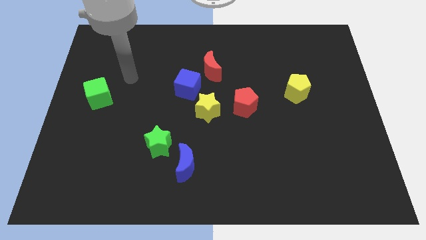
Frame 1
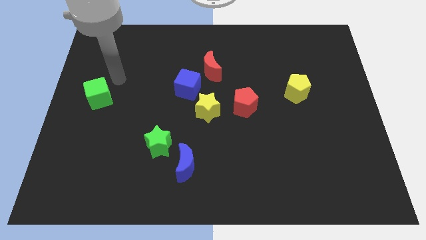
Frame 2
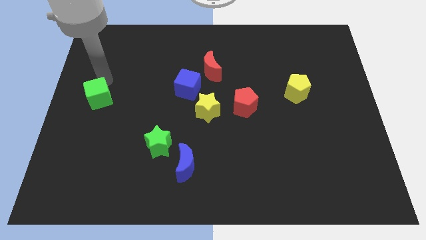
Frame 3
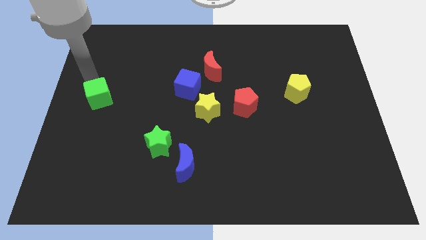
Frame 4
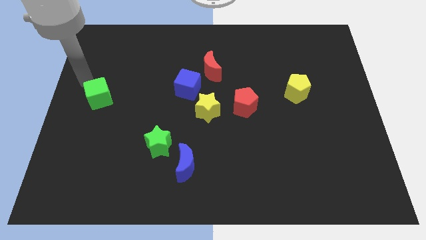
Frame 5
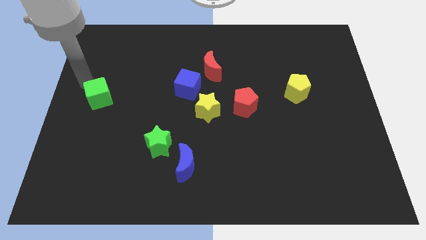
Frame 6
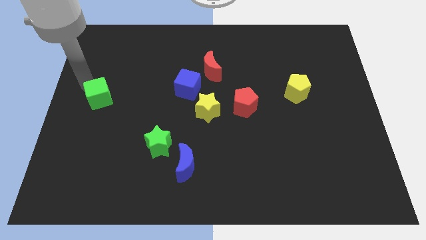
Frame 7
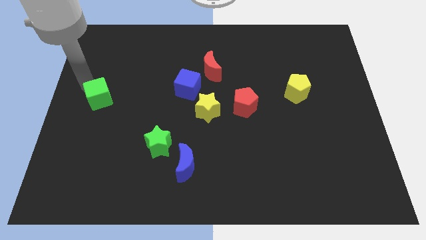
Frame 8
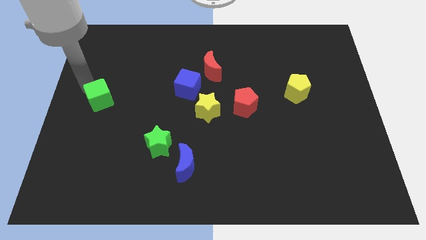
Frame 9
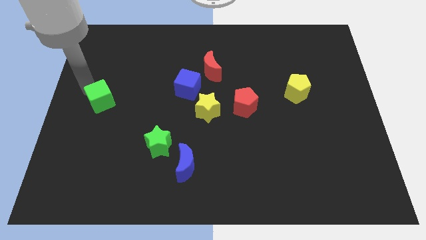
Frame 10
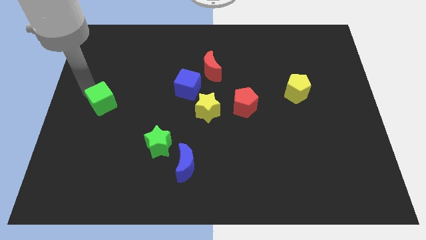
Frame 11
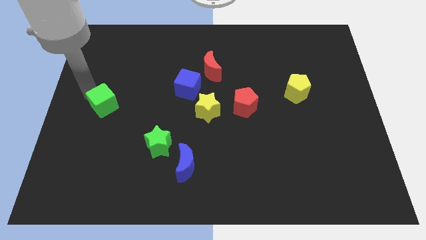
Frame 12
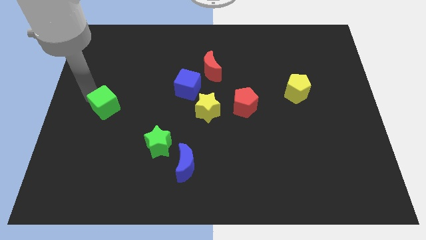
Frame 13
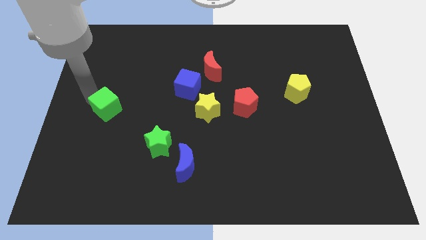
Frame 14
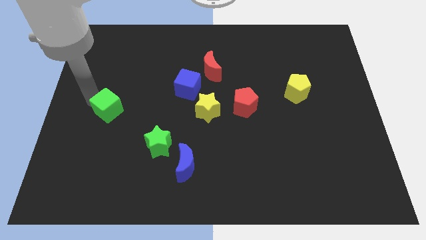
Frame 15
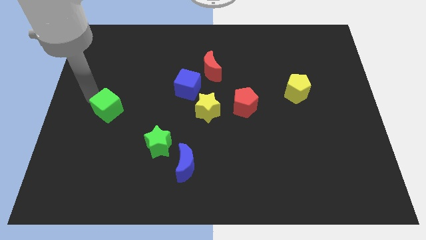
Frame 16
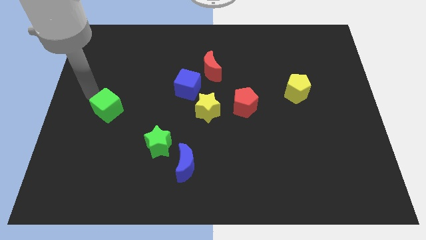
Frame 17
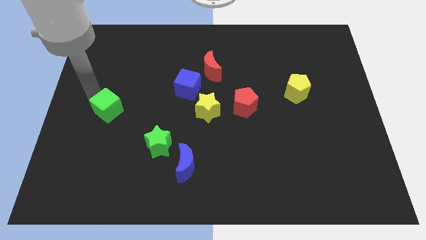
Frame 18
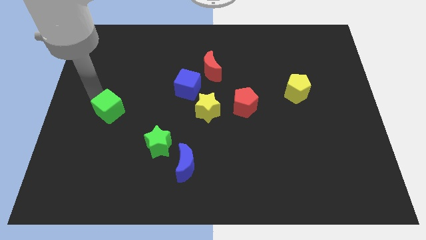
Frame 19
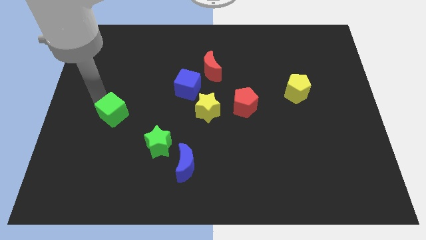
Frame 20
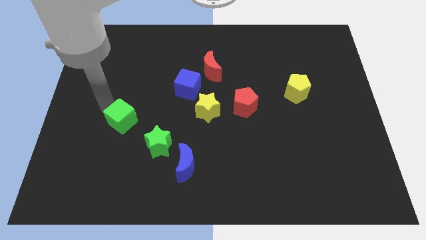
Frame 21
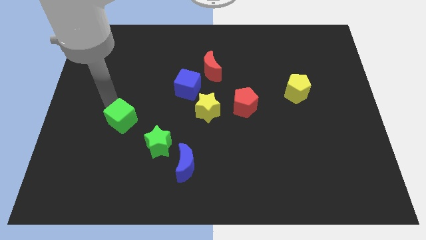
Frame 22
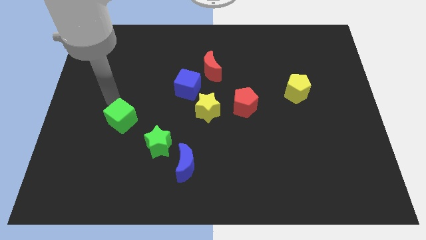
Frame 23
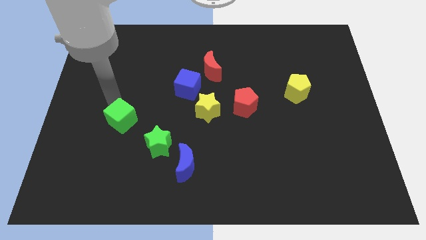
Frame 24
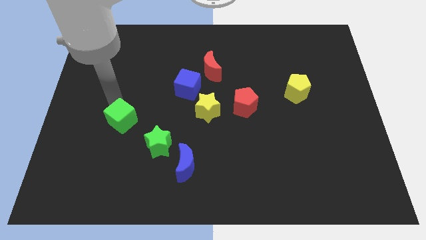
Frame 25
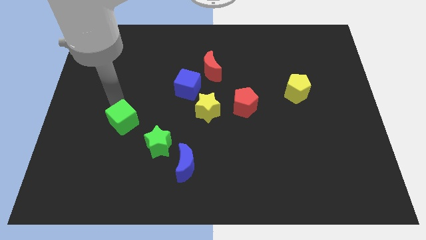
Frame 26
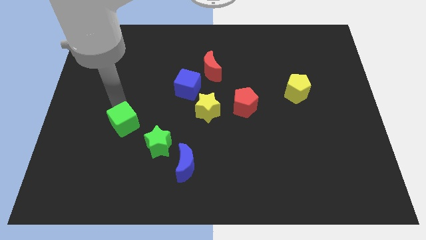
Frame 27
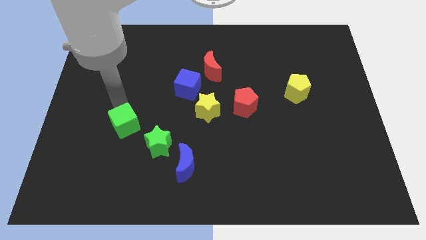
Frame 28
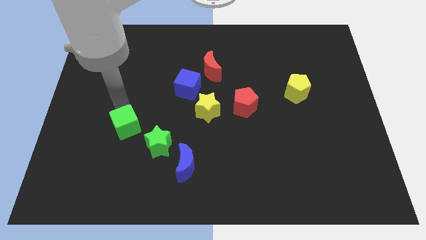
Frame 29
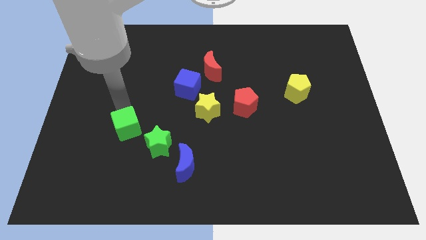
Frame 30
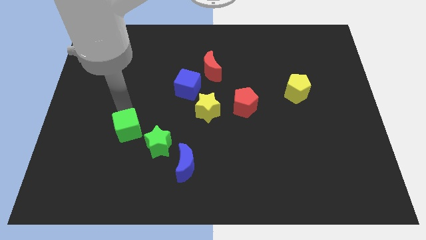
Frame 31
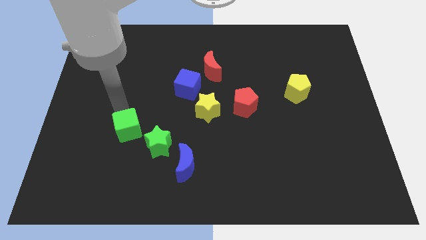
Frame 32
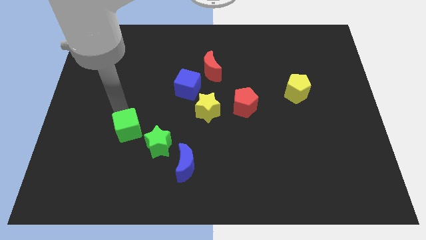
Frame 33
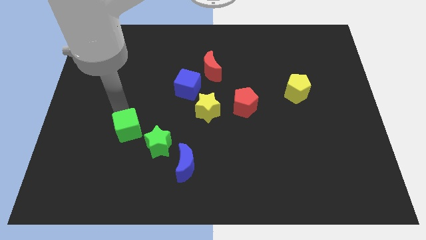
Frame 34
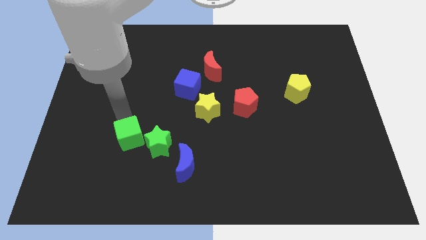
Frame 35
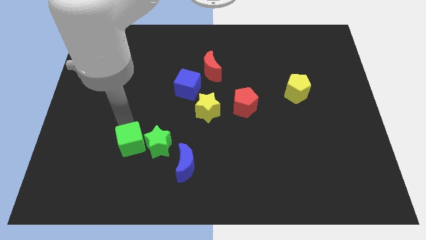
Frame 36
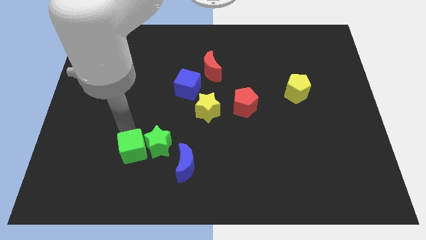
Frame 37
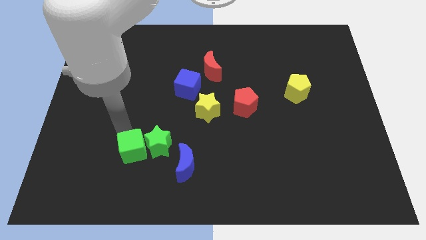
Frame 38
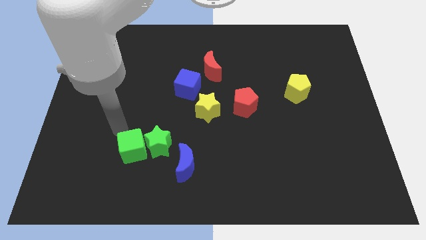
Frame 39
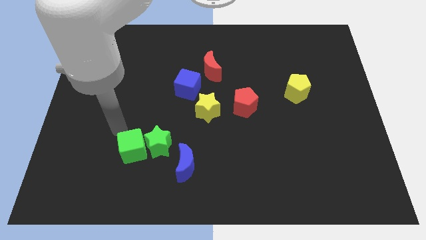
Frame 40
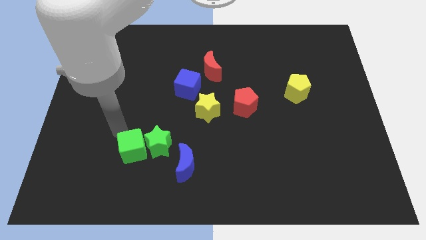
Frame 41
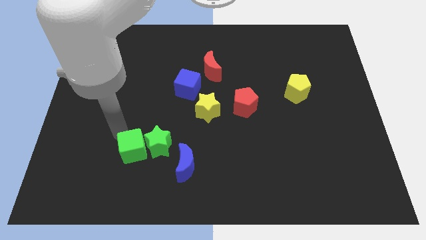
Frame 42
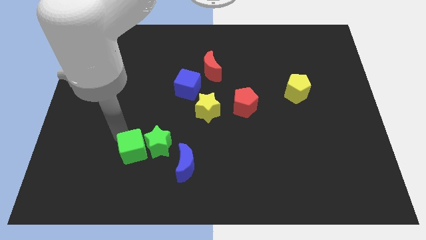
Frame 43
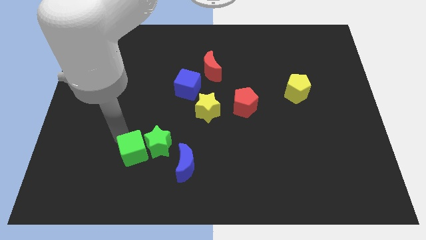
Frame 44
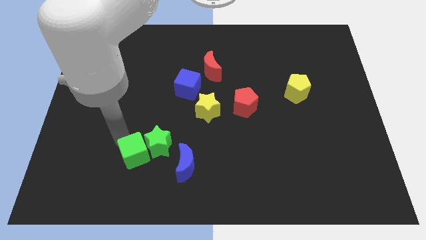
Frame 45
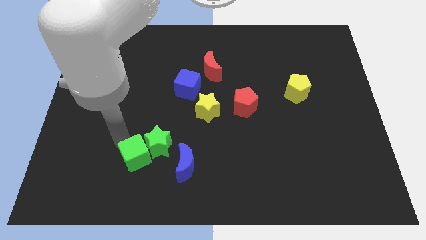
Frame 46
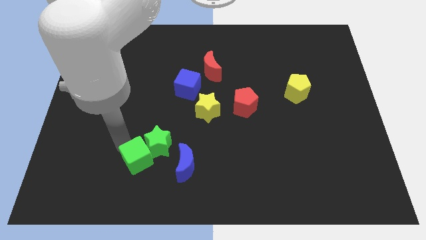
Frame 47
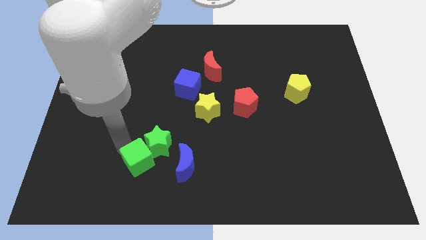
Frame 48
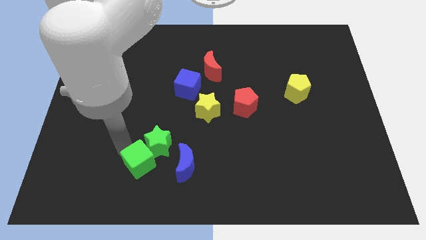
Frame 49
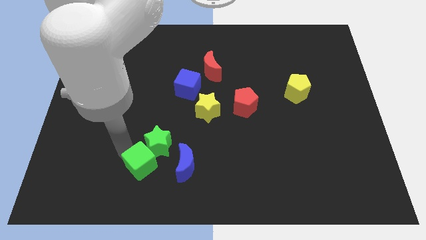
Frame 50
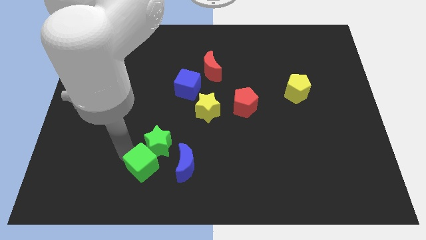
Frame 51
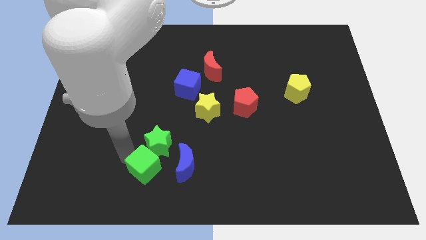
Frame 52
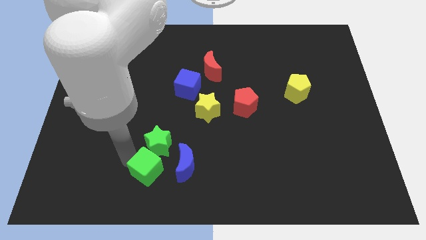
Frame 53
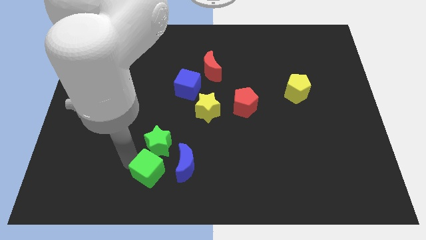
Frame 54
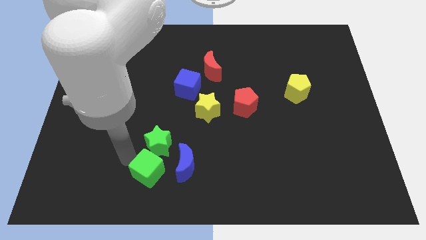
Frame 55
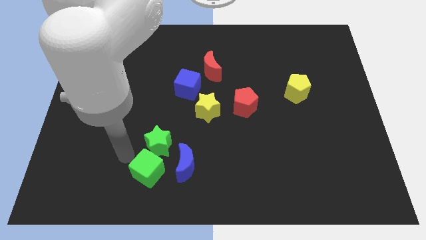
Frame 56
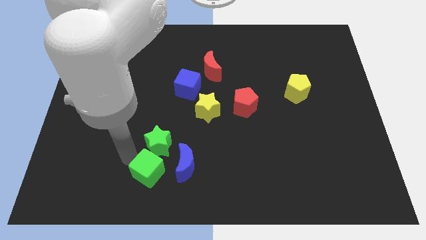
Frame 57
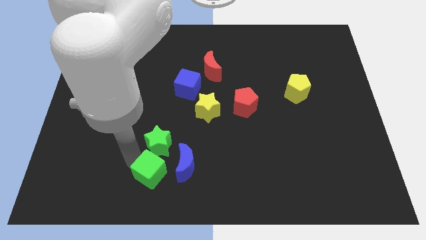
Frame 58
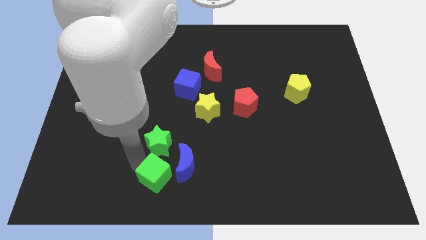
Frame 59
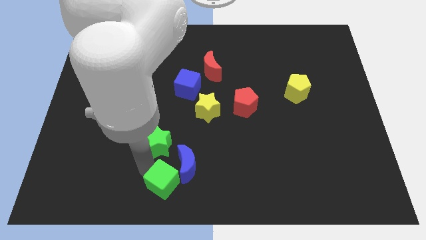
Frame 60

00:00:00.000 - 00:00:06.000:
push the green cube to the bottom side

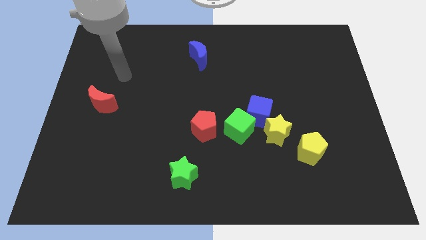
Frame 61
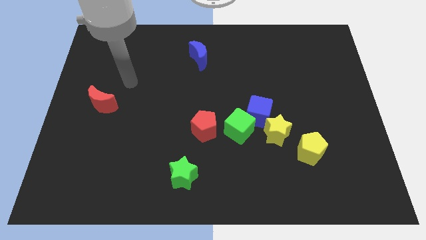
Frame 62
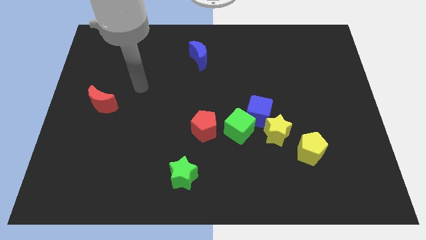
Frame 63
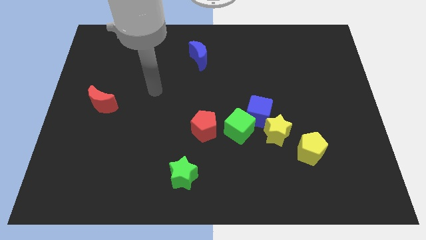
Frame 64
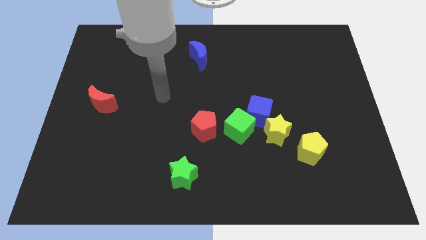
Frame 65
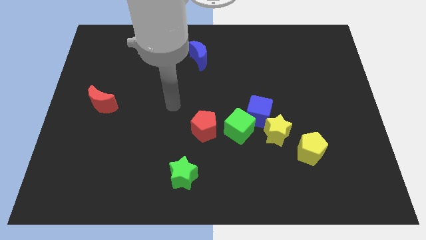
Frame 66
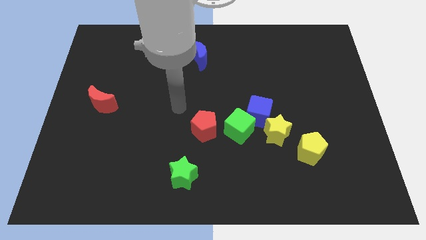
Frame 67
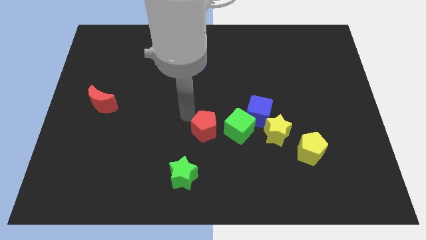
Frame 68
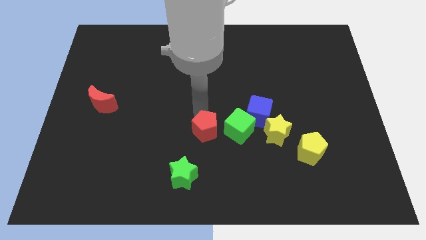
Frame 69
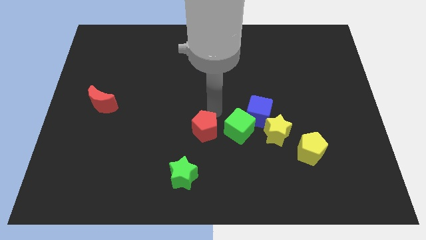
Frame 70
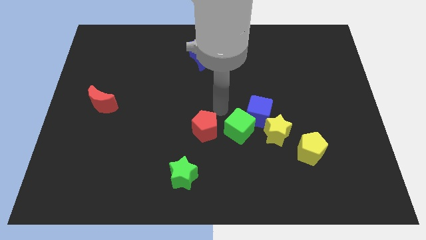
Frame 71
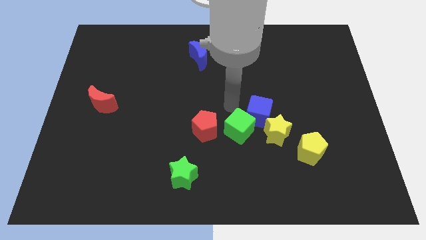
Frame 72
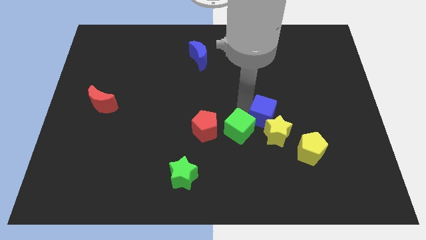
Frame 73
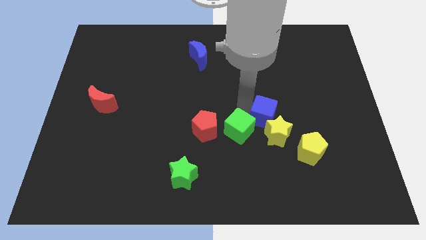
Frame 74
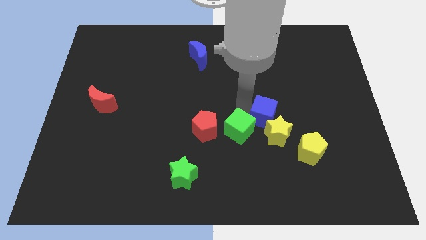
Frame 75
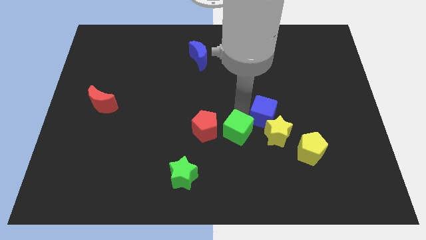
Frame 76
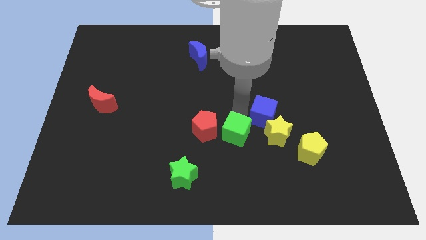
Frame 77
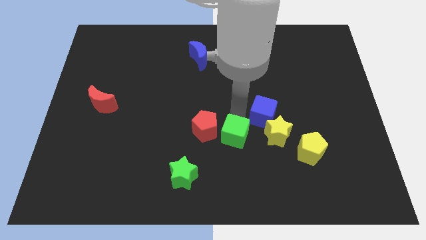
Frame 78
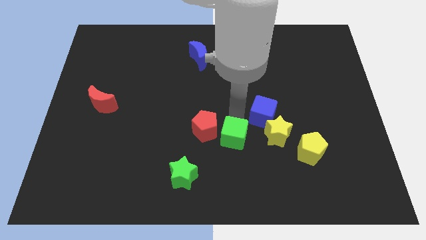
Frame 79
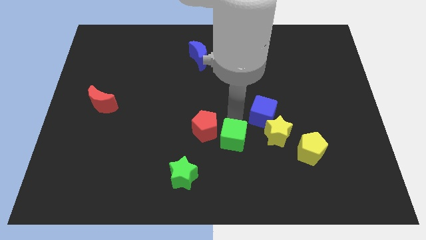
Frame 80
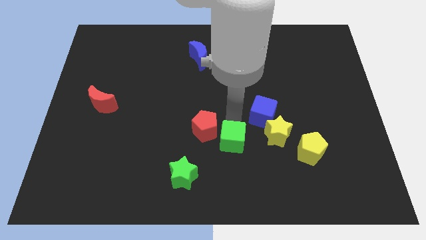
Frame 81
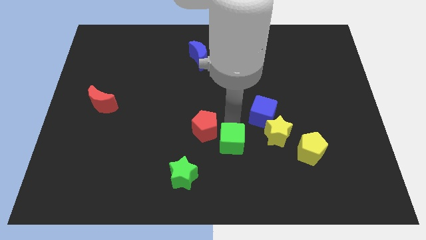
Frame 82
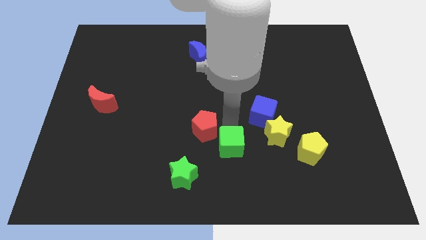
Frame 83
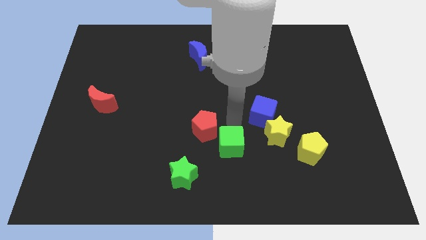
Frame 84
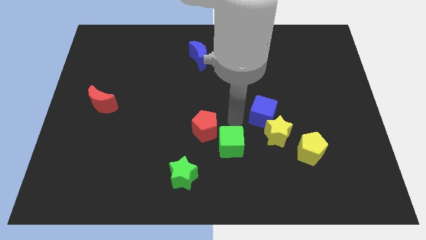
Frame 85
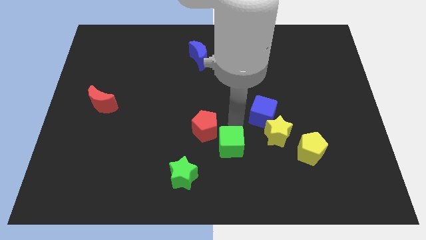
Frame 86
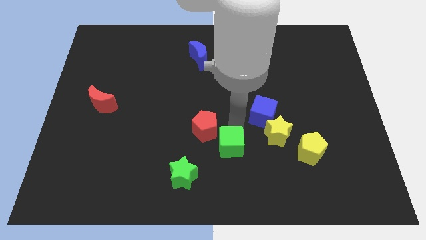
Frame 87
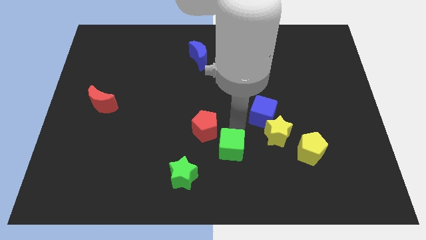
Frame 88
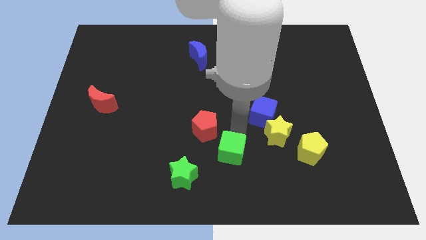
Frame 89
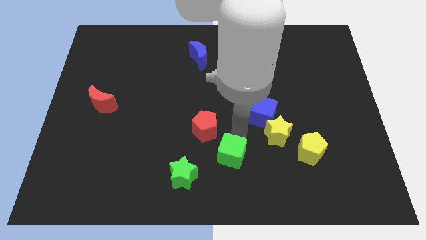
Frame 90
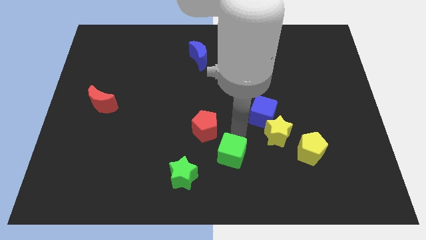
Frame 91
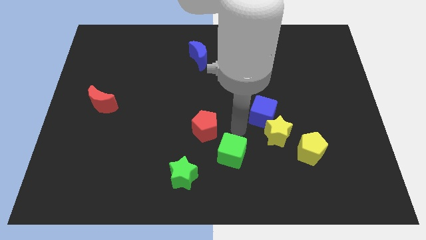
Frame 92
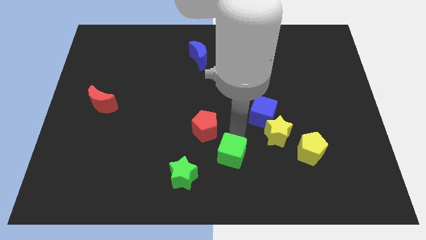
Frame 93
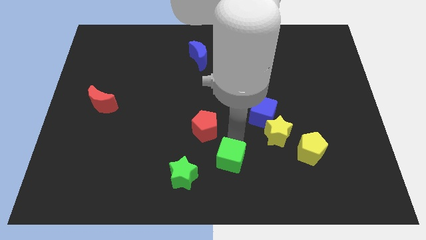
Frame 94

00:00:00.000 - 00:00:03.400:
put the green cube to the bottom side
